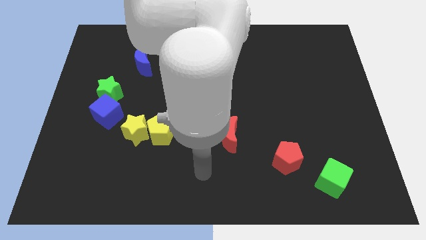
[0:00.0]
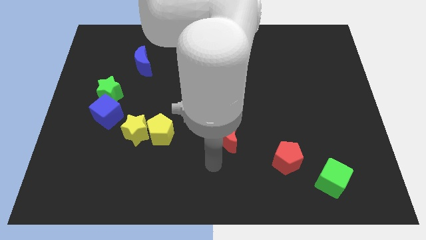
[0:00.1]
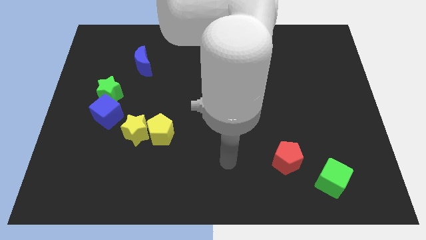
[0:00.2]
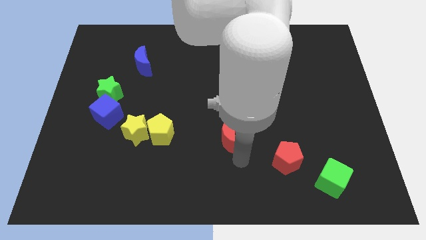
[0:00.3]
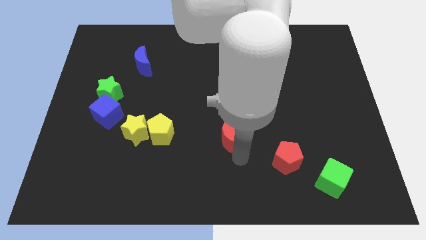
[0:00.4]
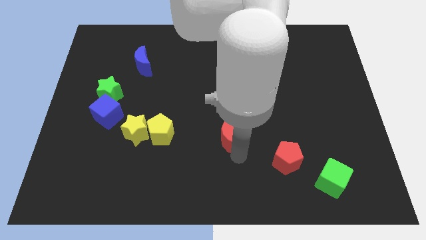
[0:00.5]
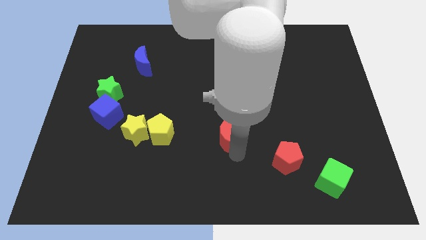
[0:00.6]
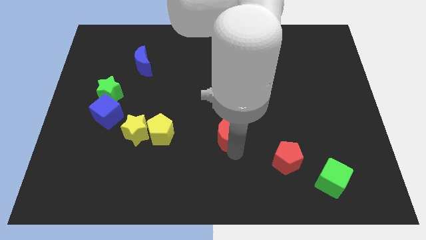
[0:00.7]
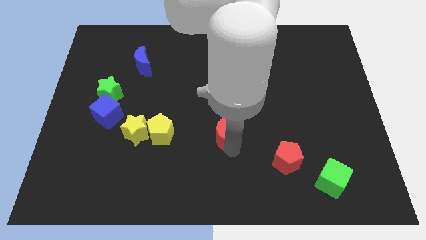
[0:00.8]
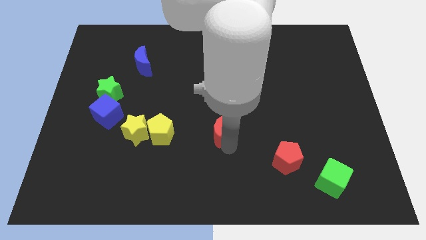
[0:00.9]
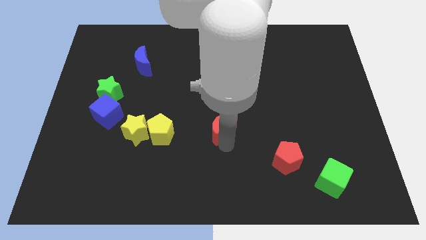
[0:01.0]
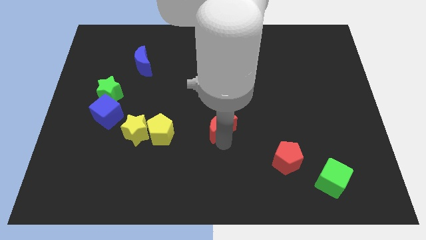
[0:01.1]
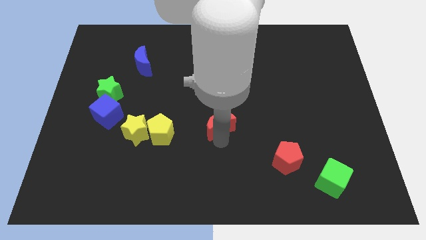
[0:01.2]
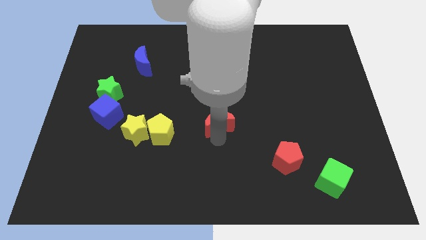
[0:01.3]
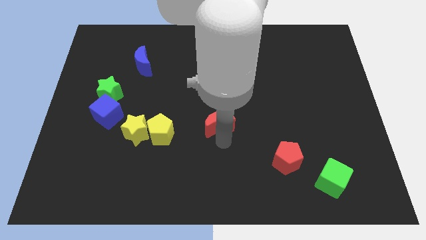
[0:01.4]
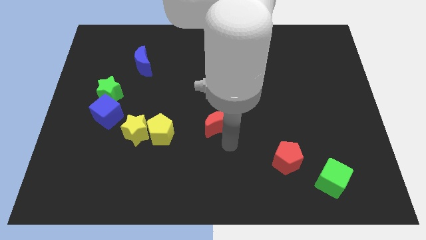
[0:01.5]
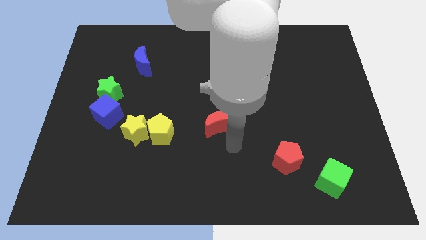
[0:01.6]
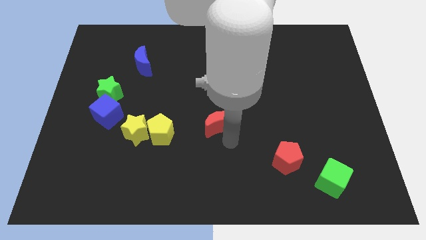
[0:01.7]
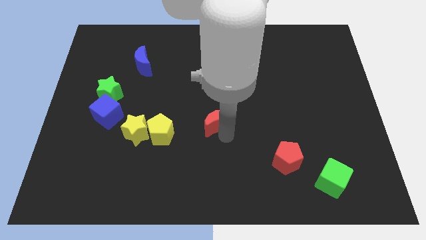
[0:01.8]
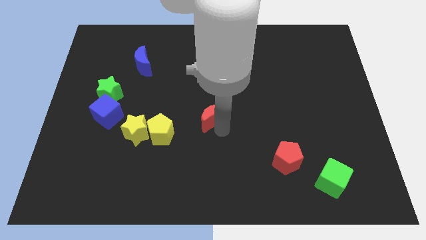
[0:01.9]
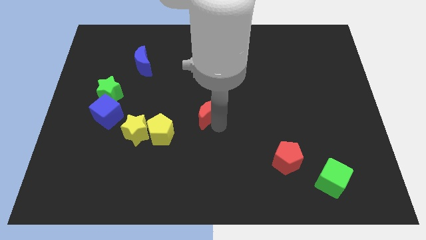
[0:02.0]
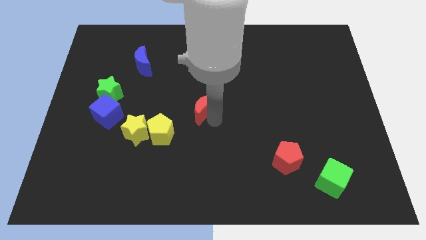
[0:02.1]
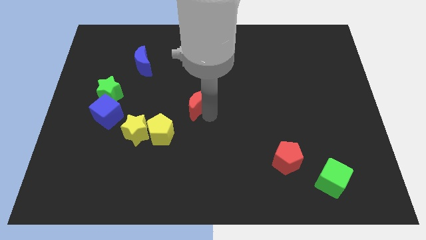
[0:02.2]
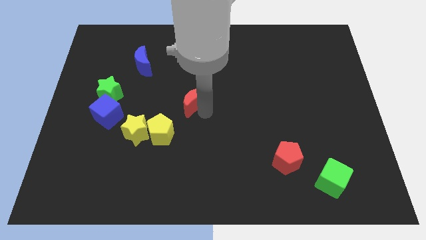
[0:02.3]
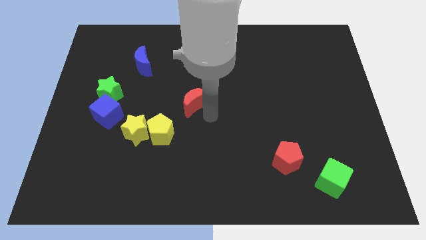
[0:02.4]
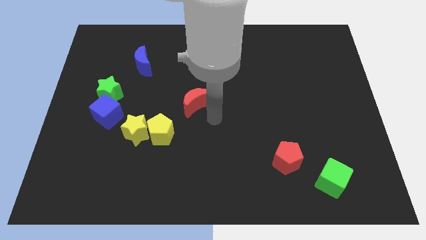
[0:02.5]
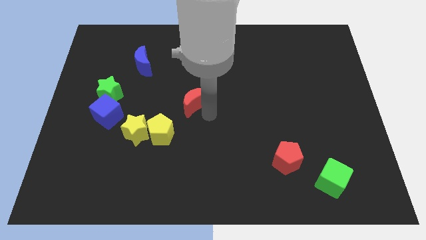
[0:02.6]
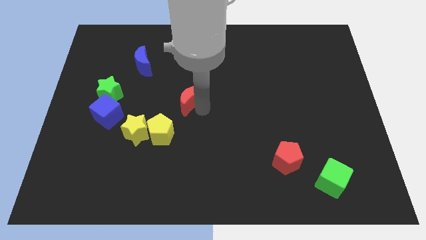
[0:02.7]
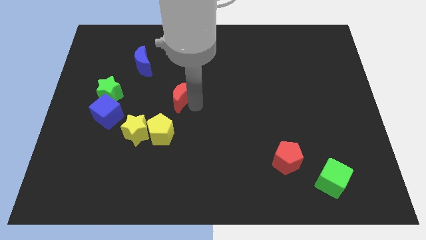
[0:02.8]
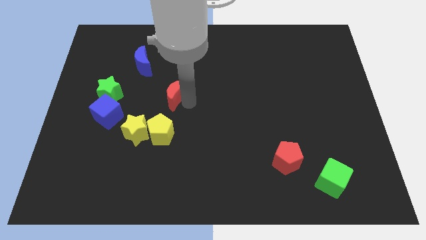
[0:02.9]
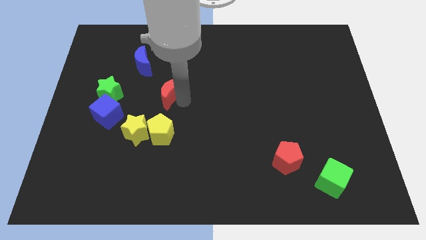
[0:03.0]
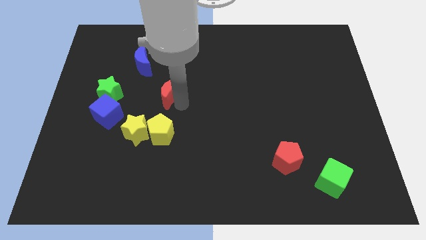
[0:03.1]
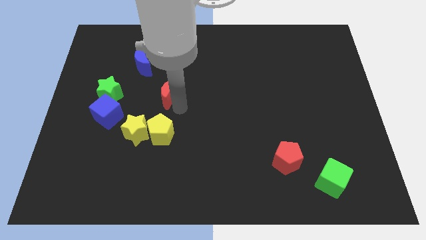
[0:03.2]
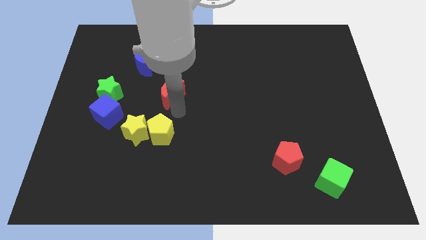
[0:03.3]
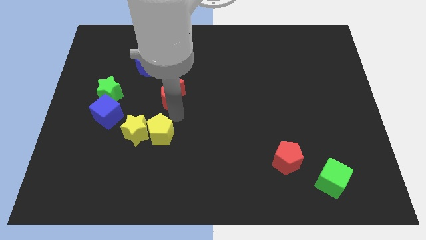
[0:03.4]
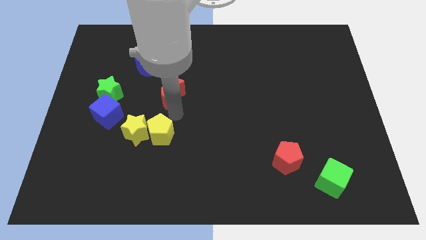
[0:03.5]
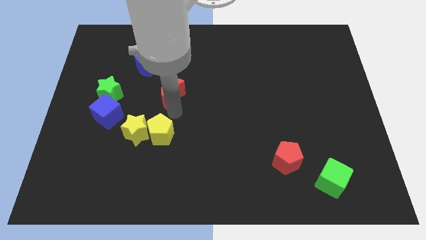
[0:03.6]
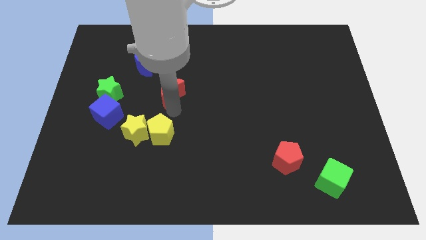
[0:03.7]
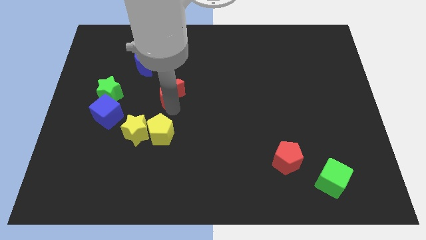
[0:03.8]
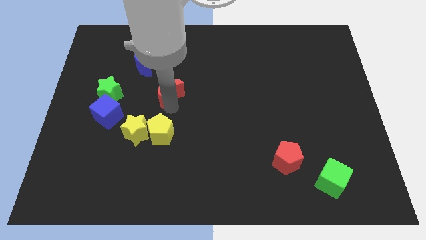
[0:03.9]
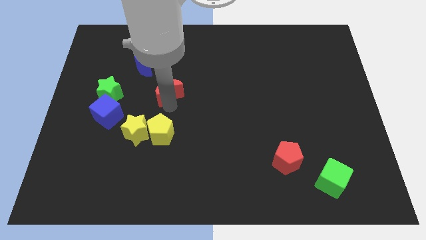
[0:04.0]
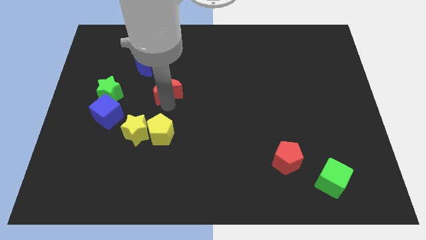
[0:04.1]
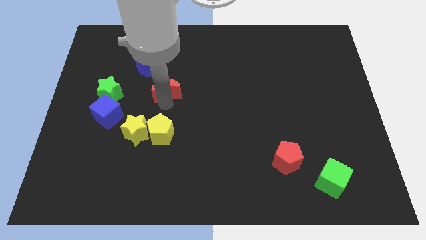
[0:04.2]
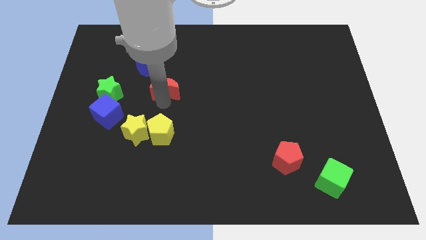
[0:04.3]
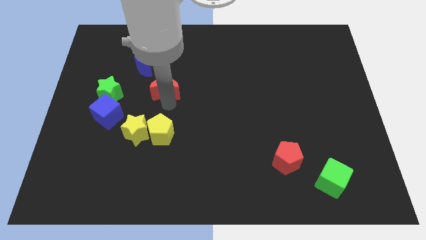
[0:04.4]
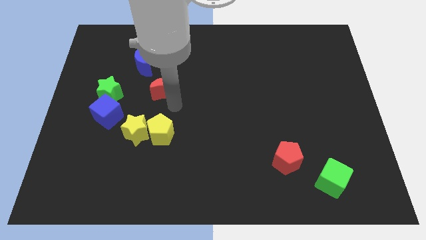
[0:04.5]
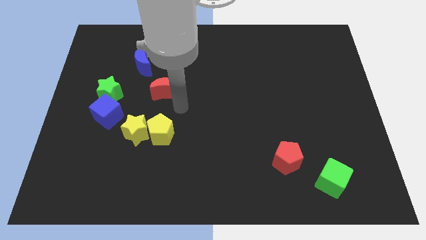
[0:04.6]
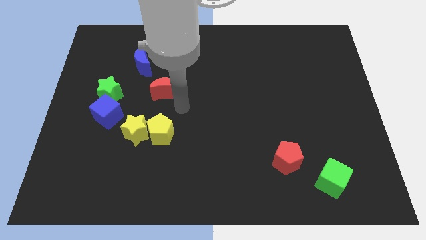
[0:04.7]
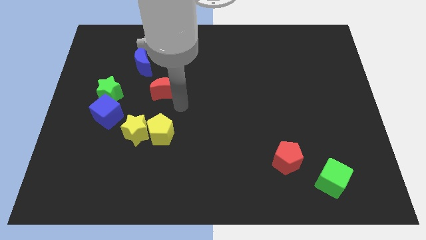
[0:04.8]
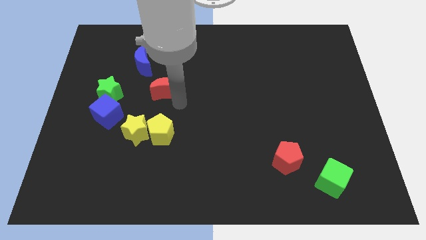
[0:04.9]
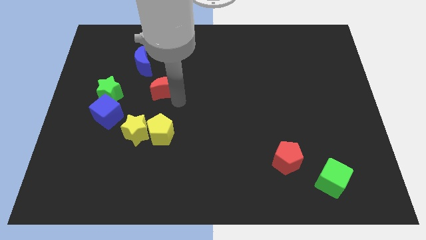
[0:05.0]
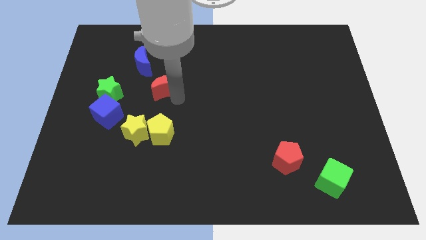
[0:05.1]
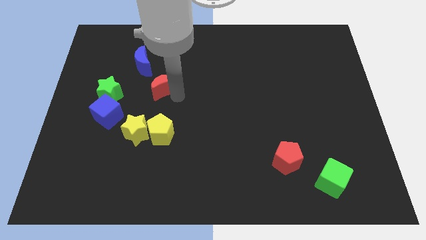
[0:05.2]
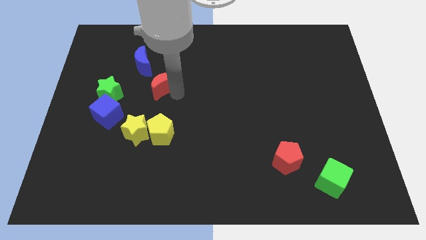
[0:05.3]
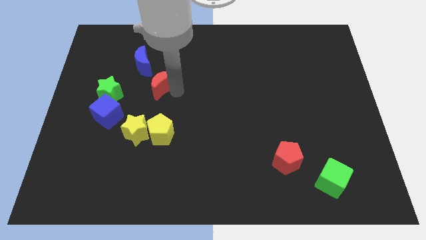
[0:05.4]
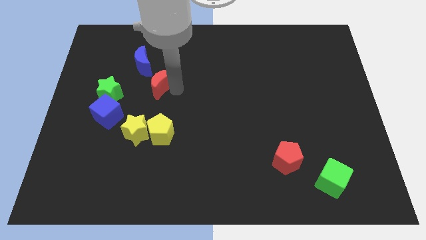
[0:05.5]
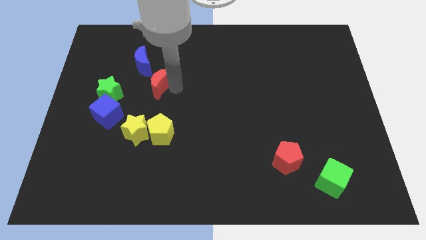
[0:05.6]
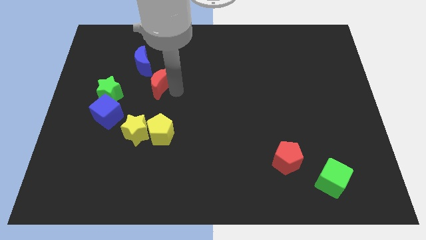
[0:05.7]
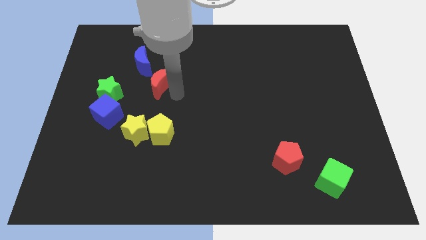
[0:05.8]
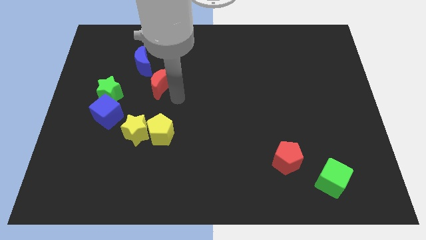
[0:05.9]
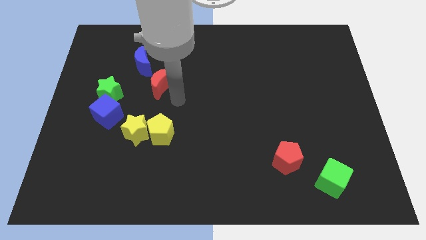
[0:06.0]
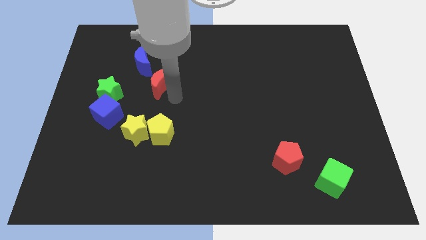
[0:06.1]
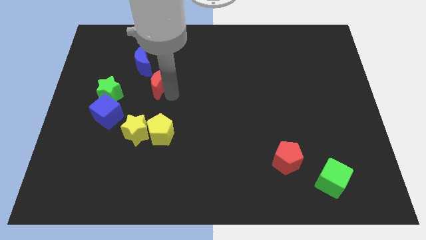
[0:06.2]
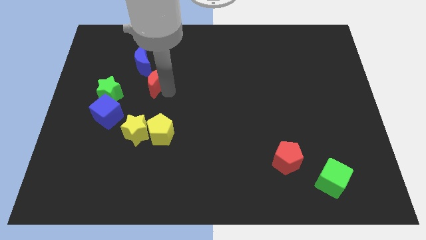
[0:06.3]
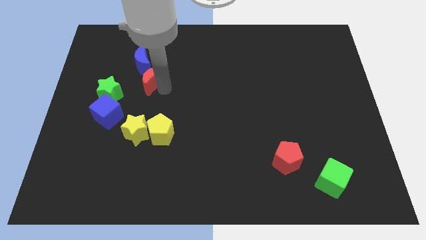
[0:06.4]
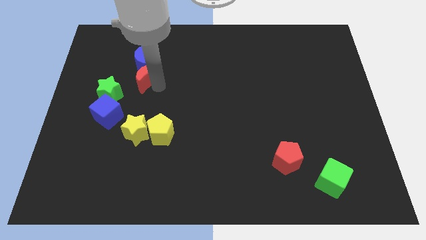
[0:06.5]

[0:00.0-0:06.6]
put the red moon next to the blue moon

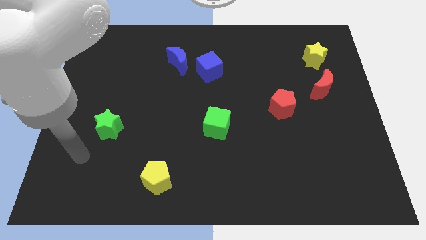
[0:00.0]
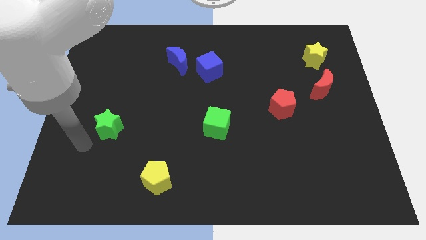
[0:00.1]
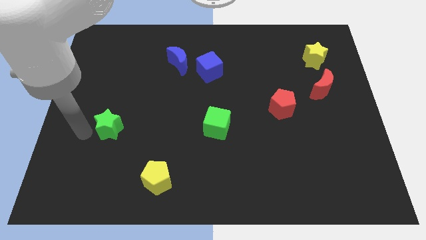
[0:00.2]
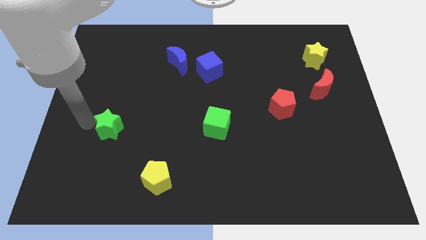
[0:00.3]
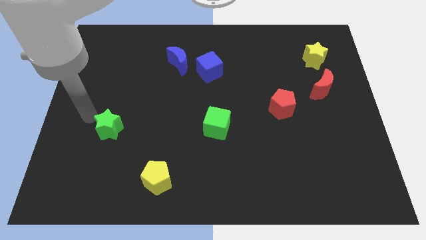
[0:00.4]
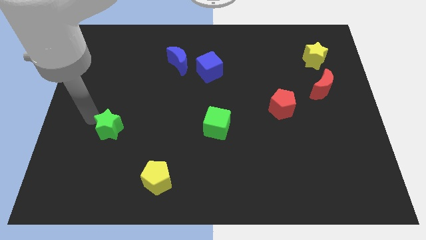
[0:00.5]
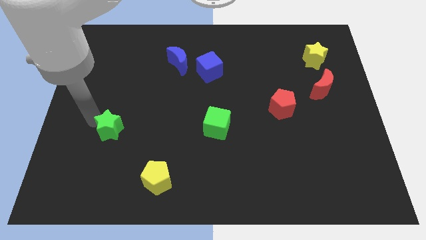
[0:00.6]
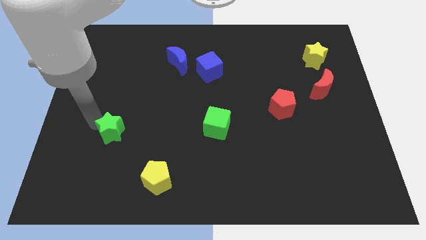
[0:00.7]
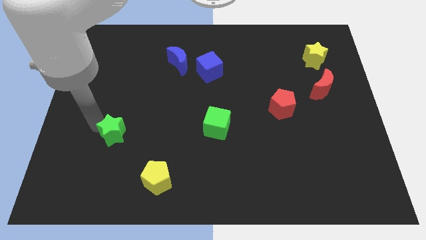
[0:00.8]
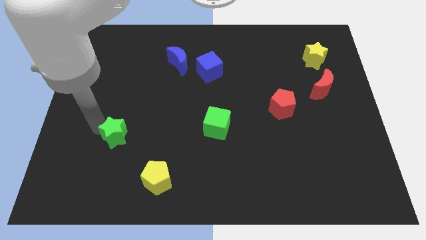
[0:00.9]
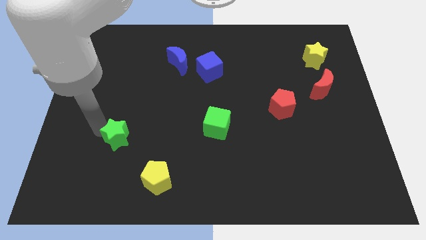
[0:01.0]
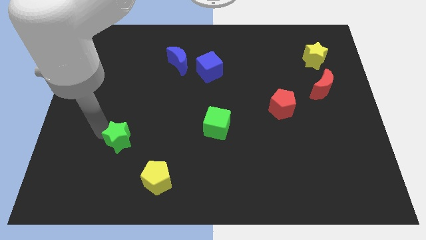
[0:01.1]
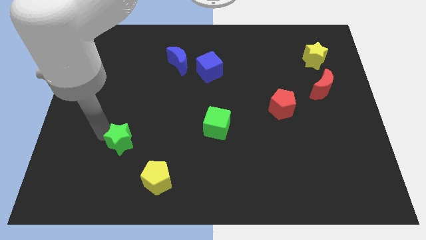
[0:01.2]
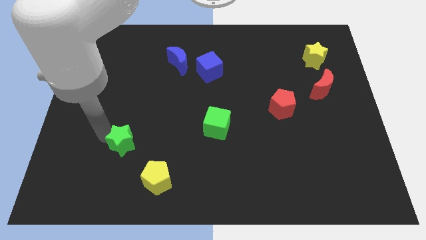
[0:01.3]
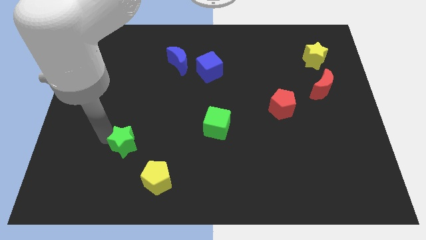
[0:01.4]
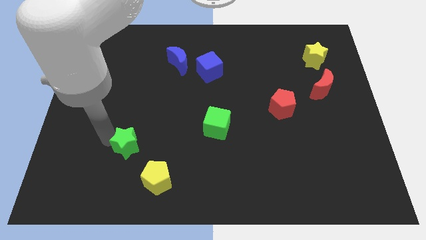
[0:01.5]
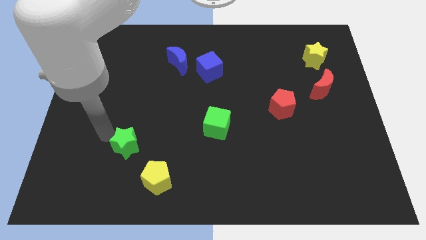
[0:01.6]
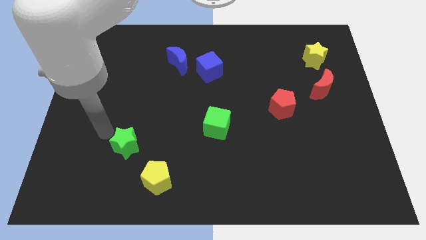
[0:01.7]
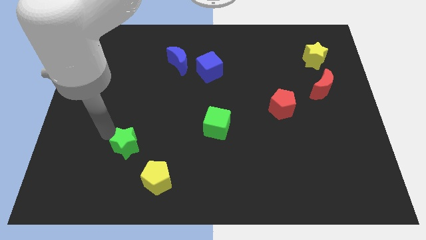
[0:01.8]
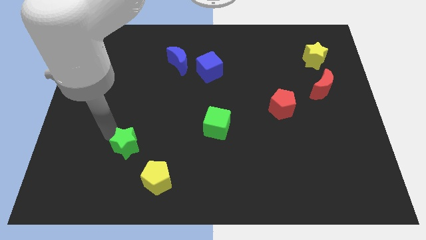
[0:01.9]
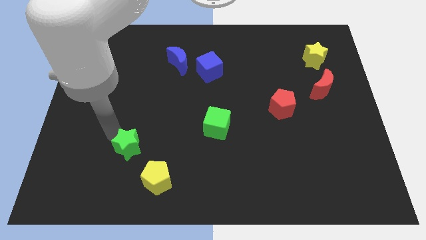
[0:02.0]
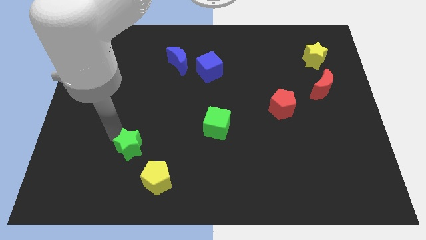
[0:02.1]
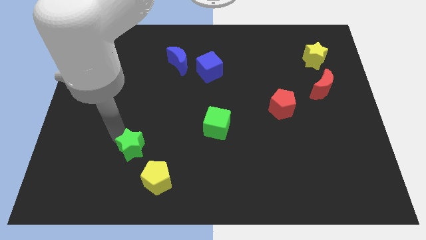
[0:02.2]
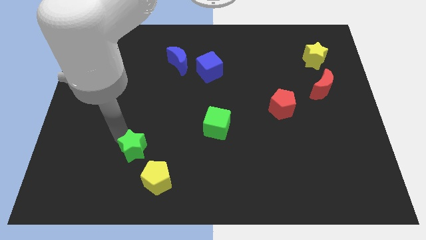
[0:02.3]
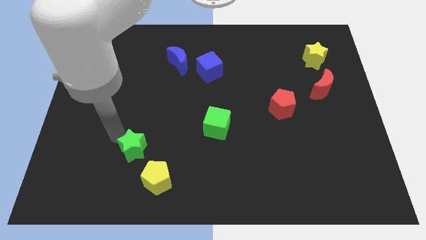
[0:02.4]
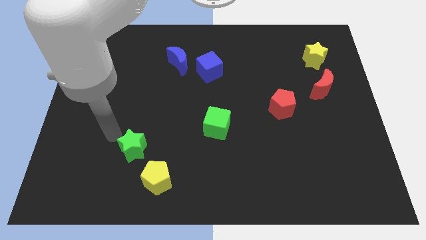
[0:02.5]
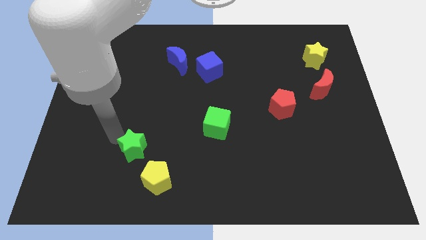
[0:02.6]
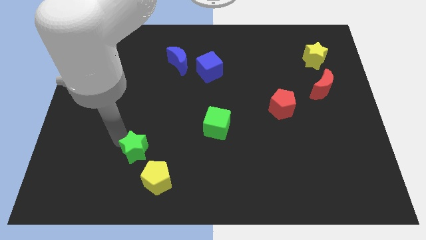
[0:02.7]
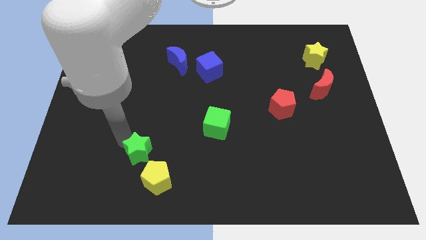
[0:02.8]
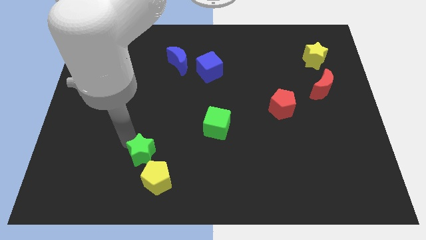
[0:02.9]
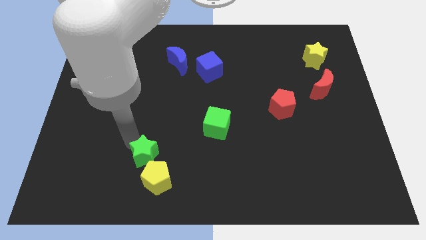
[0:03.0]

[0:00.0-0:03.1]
move the green star next to the yellow pentagon
